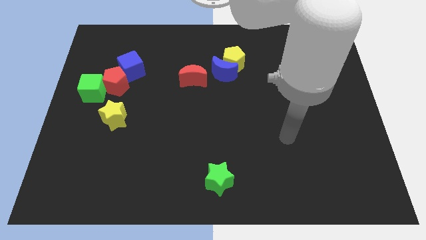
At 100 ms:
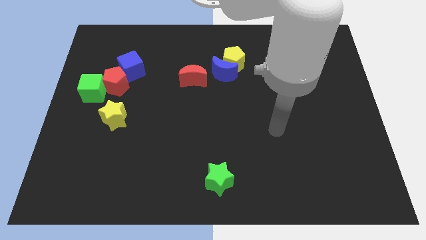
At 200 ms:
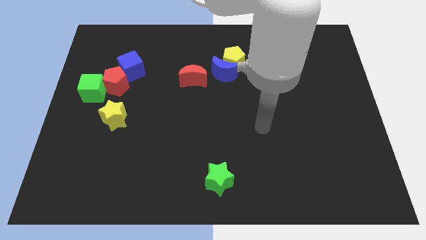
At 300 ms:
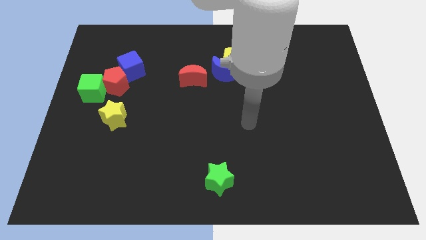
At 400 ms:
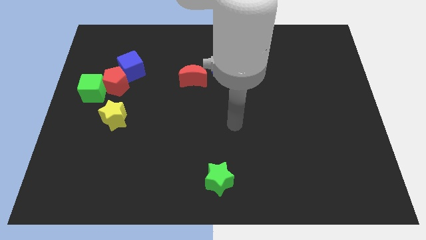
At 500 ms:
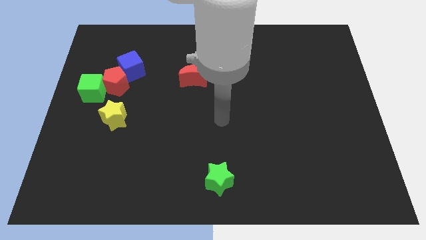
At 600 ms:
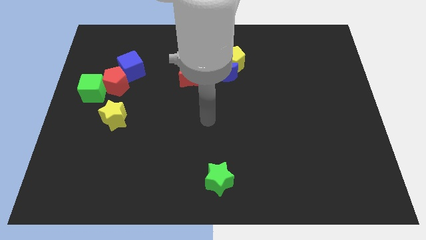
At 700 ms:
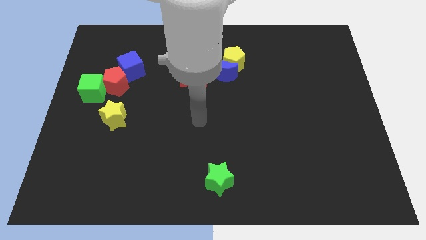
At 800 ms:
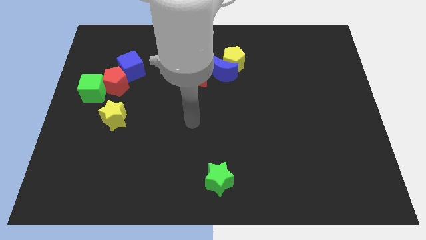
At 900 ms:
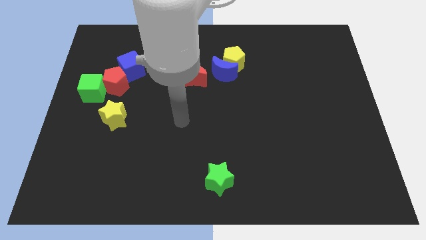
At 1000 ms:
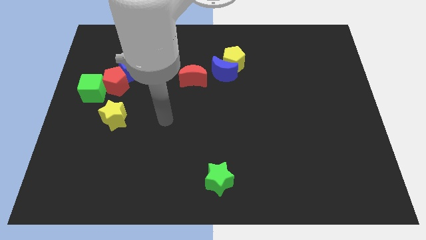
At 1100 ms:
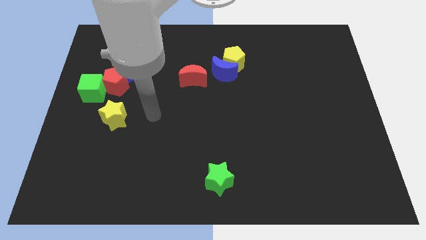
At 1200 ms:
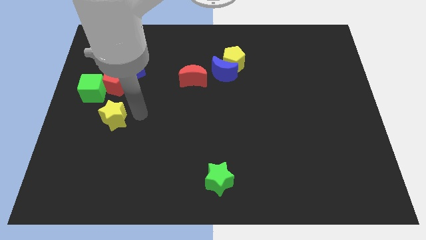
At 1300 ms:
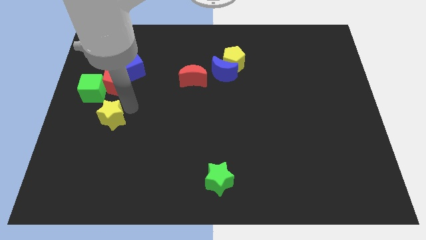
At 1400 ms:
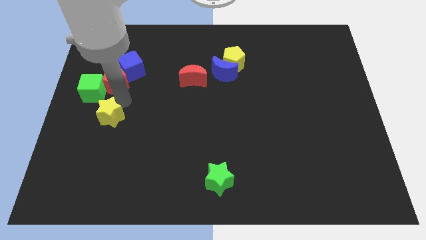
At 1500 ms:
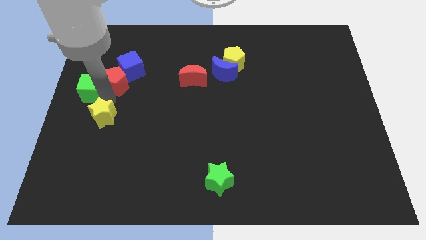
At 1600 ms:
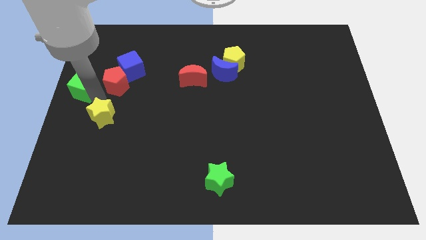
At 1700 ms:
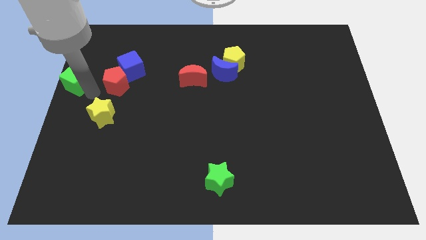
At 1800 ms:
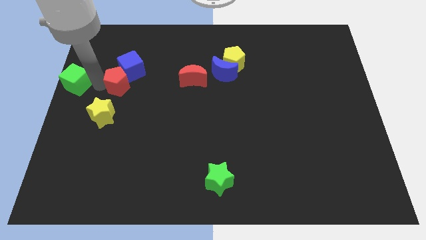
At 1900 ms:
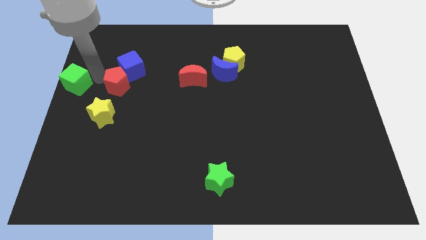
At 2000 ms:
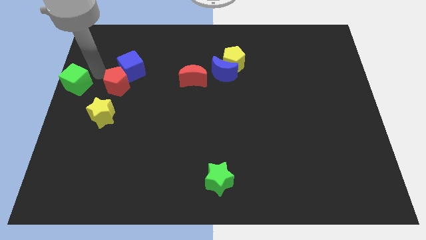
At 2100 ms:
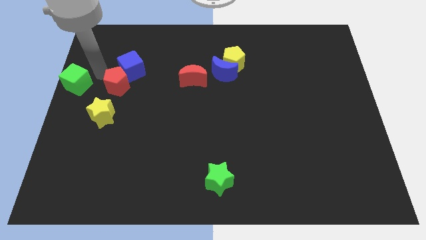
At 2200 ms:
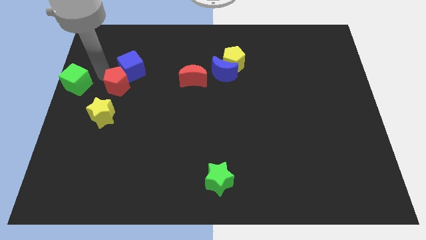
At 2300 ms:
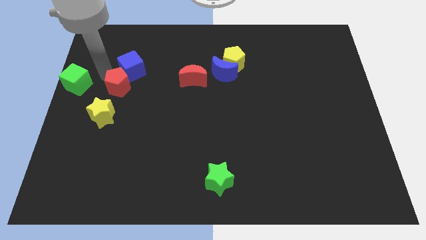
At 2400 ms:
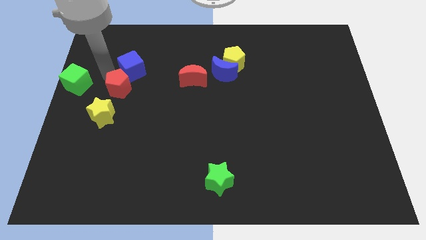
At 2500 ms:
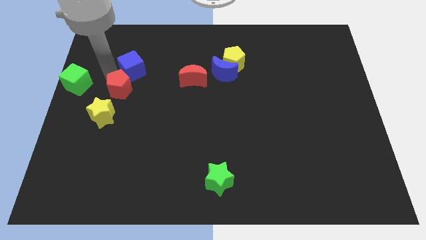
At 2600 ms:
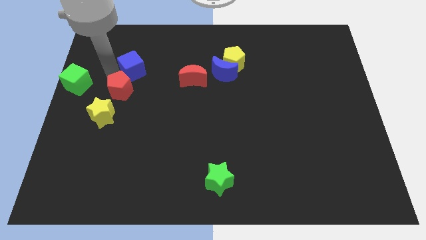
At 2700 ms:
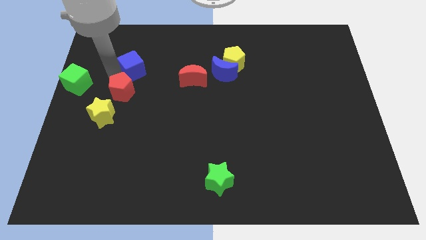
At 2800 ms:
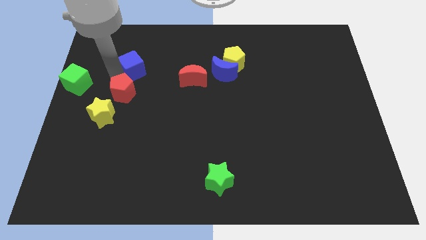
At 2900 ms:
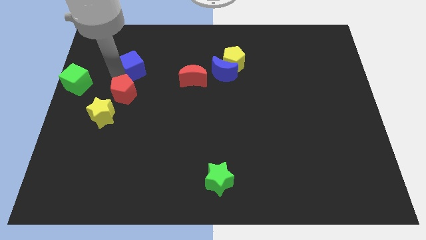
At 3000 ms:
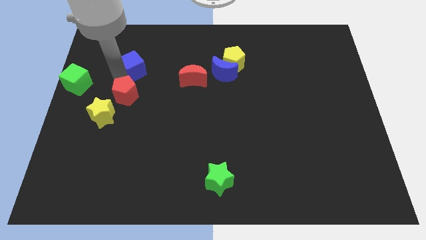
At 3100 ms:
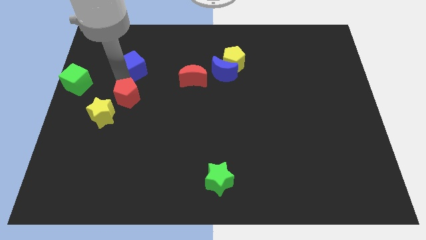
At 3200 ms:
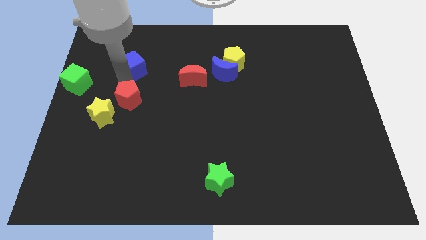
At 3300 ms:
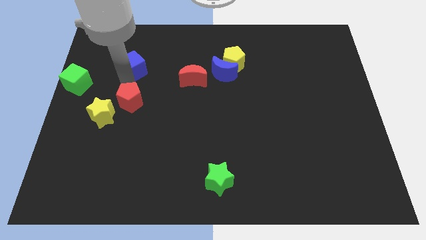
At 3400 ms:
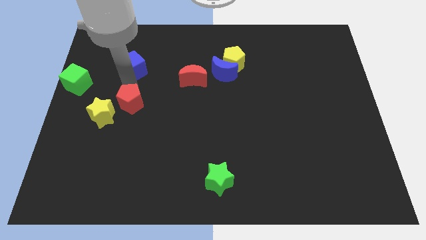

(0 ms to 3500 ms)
push the red pentagon somewhat diagonally downwards and to the right

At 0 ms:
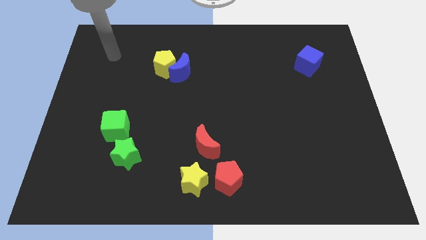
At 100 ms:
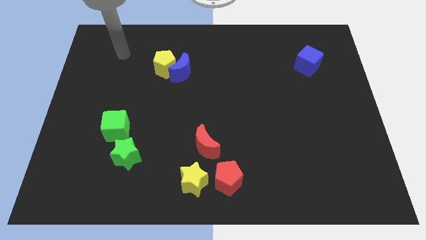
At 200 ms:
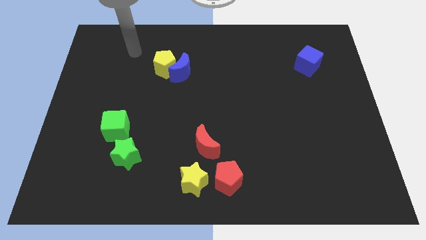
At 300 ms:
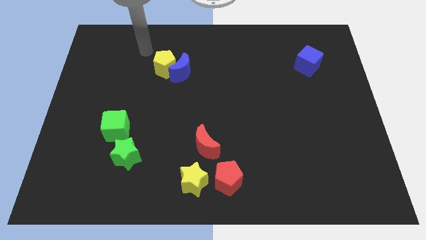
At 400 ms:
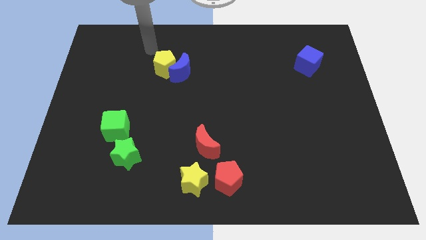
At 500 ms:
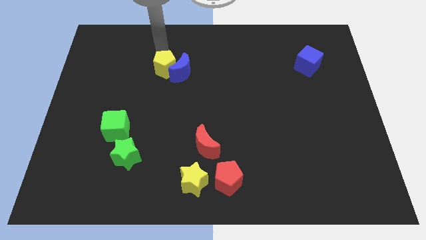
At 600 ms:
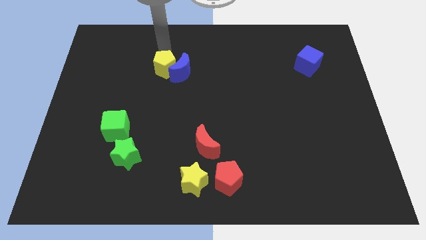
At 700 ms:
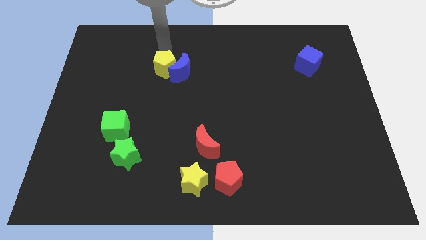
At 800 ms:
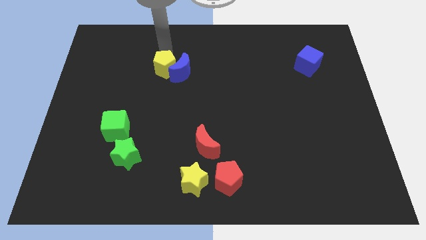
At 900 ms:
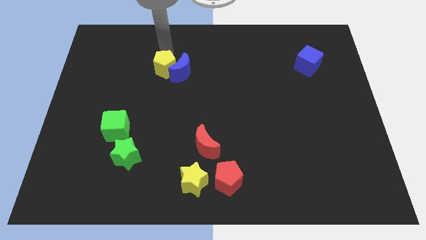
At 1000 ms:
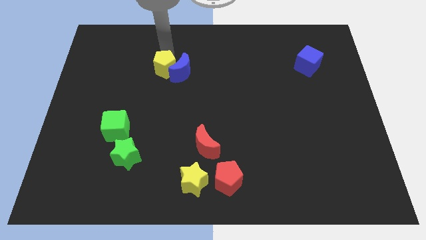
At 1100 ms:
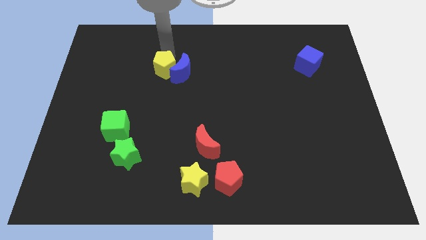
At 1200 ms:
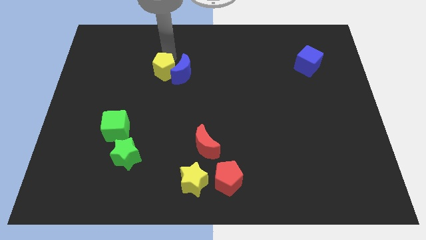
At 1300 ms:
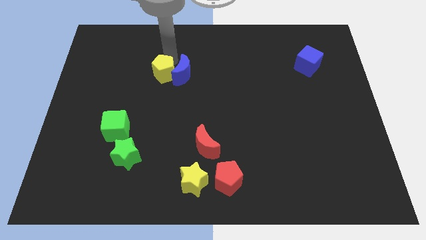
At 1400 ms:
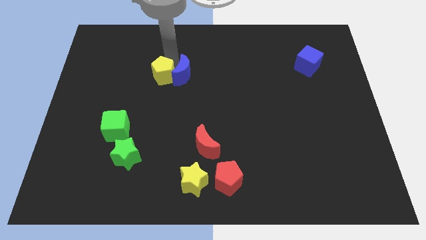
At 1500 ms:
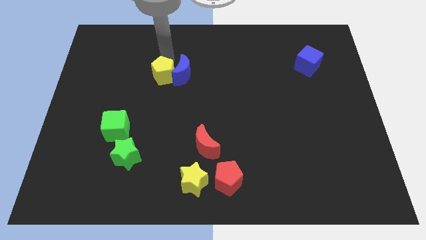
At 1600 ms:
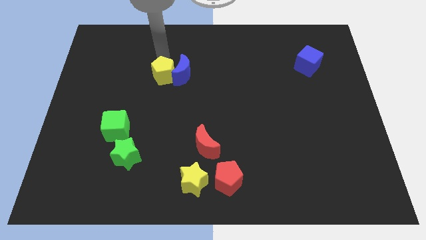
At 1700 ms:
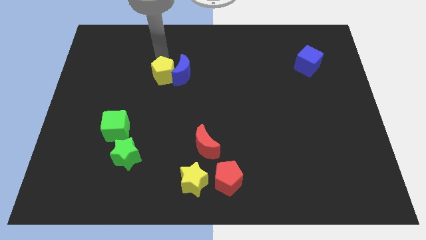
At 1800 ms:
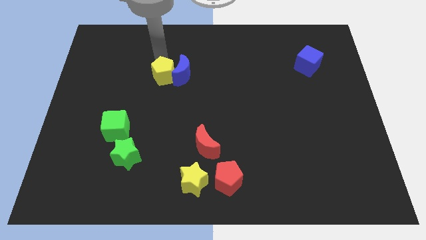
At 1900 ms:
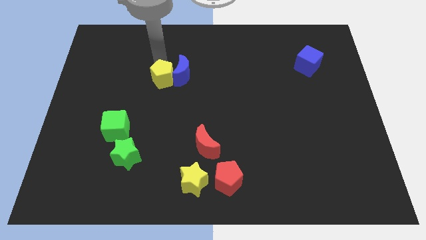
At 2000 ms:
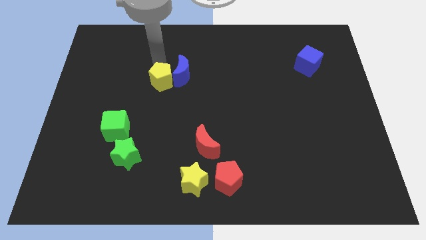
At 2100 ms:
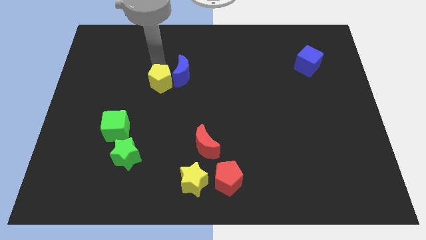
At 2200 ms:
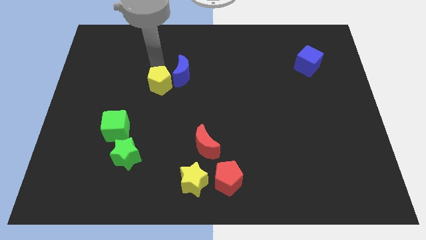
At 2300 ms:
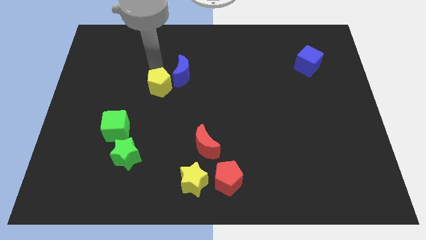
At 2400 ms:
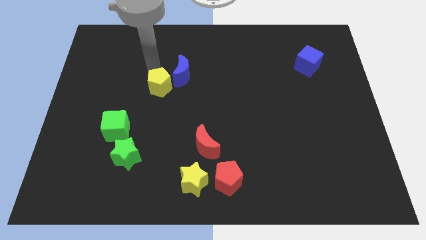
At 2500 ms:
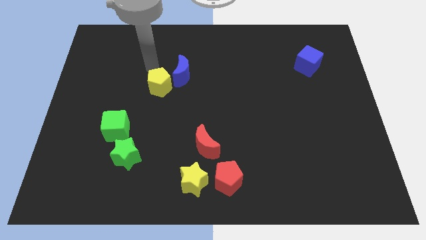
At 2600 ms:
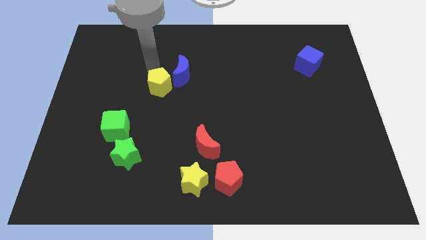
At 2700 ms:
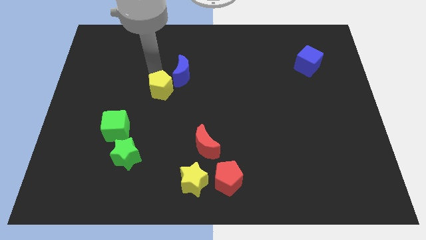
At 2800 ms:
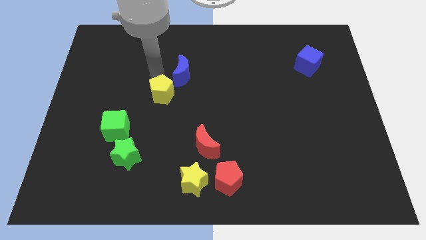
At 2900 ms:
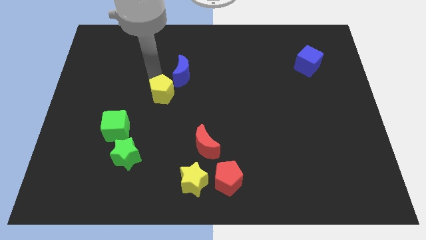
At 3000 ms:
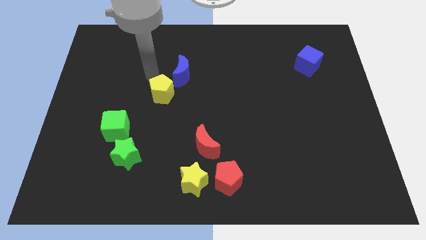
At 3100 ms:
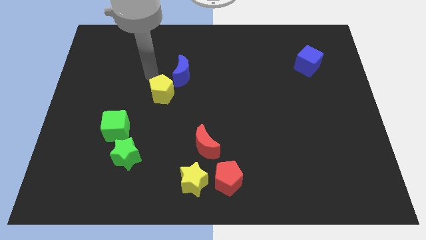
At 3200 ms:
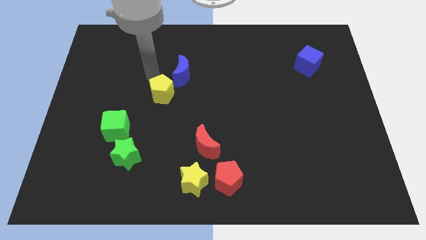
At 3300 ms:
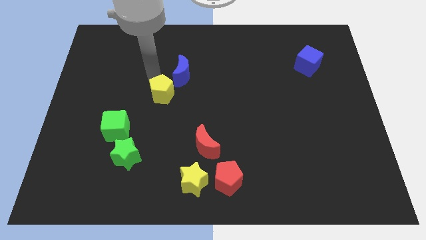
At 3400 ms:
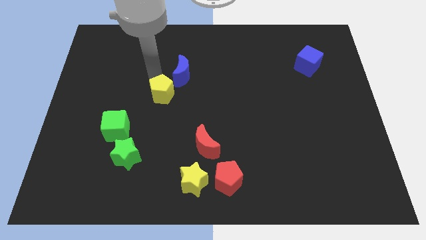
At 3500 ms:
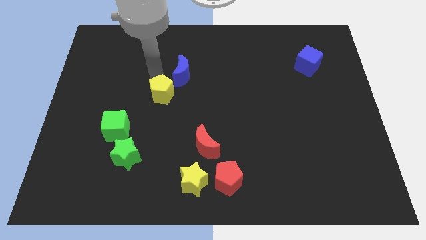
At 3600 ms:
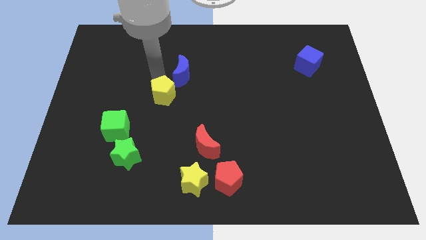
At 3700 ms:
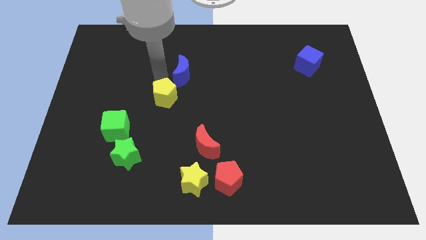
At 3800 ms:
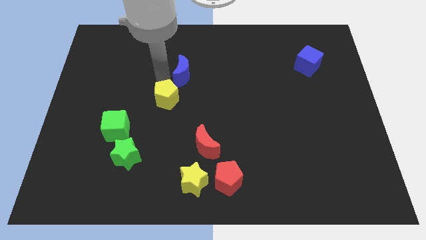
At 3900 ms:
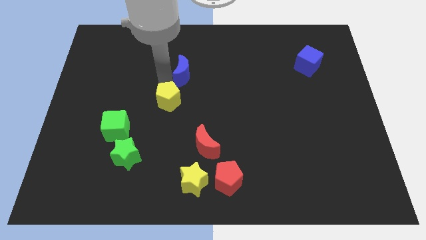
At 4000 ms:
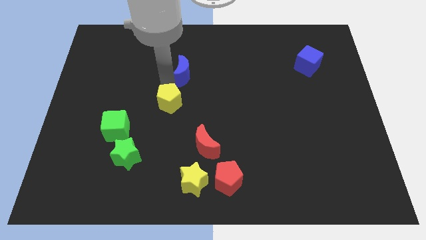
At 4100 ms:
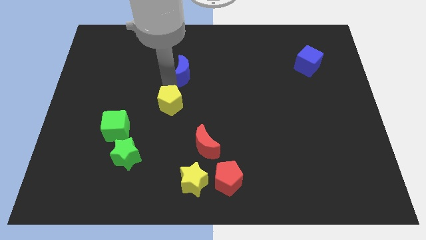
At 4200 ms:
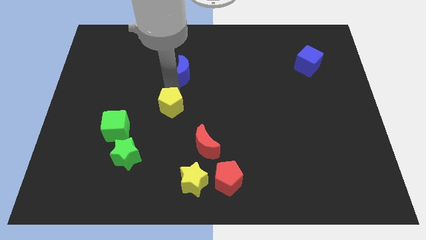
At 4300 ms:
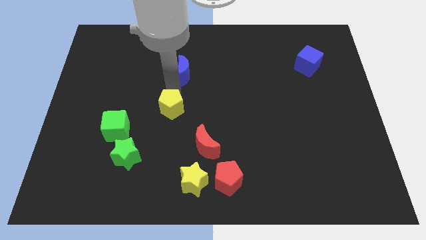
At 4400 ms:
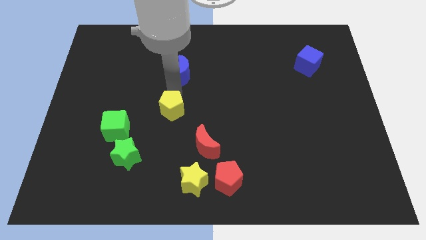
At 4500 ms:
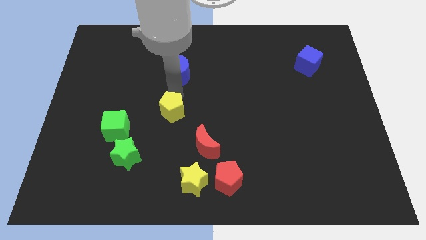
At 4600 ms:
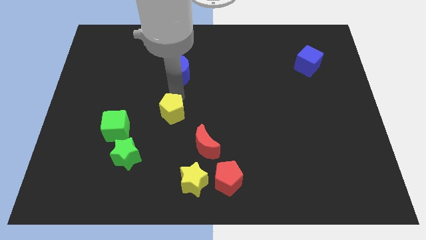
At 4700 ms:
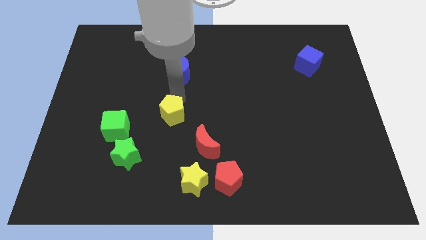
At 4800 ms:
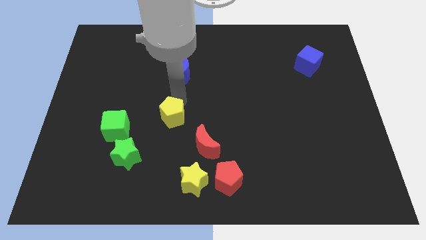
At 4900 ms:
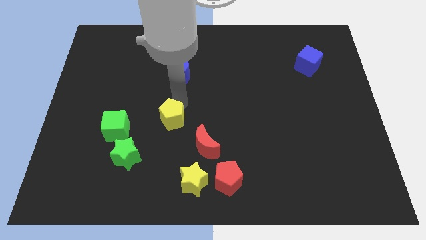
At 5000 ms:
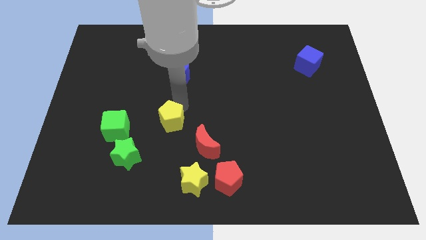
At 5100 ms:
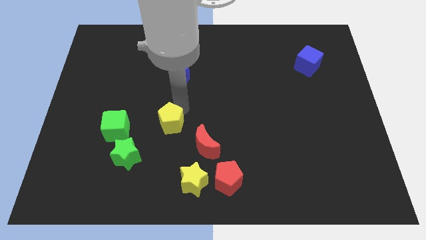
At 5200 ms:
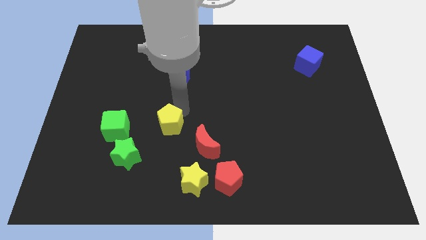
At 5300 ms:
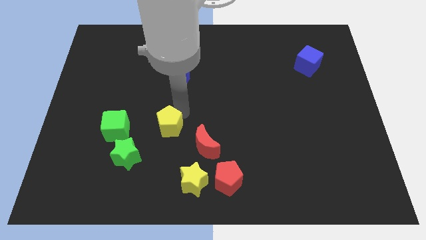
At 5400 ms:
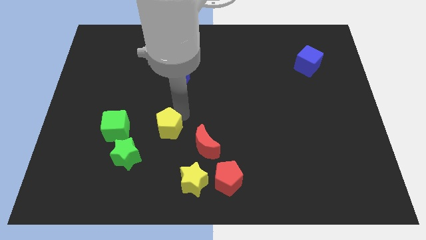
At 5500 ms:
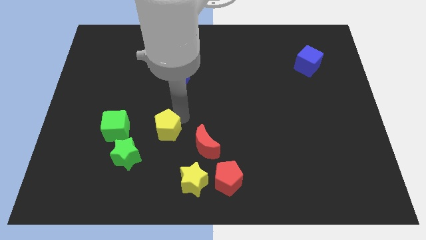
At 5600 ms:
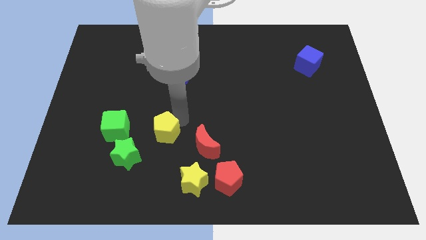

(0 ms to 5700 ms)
move the yellow pentagon down
